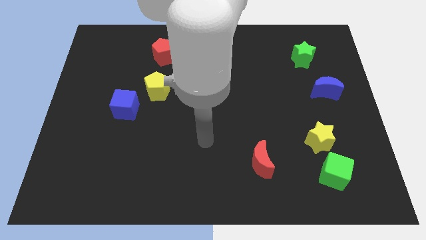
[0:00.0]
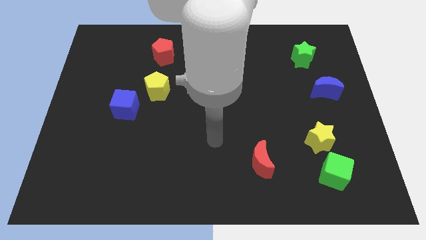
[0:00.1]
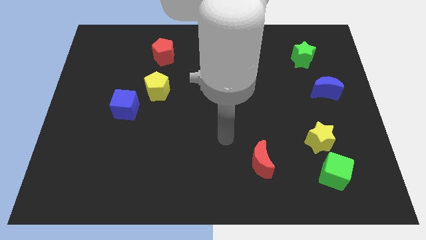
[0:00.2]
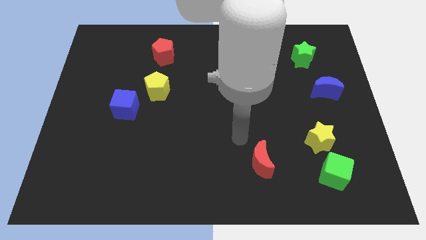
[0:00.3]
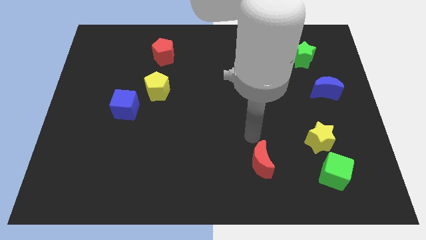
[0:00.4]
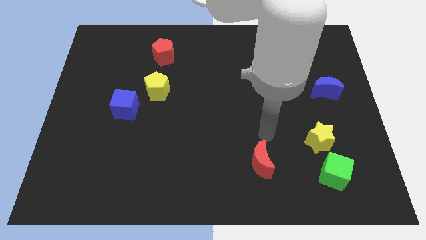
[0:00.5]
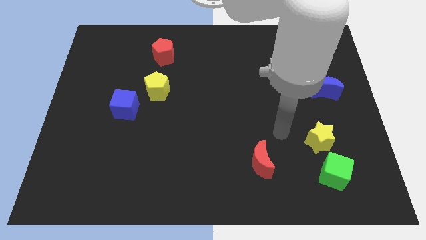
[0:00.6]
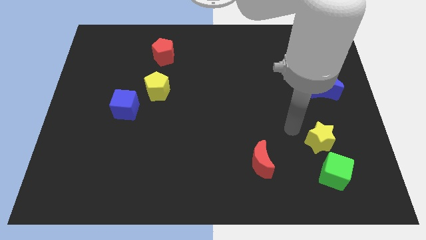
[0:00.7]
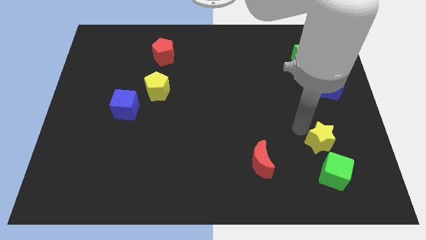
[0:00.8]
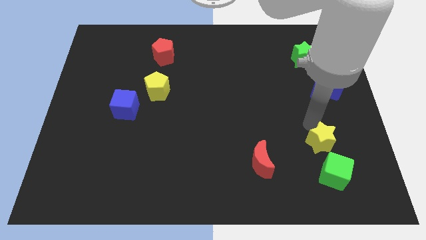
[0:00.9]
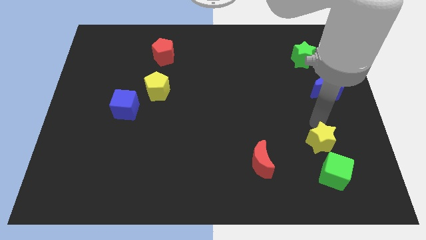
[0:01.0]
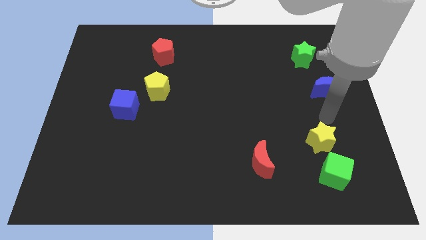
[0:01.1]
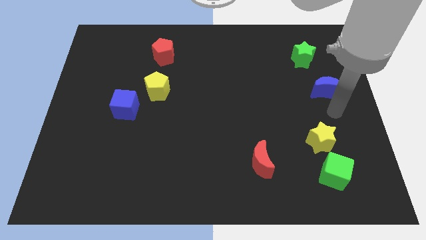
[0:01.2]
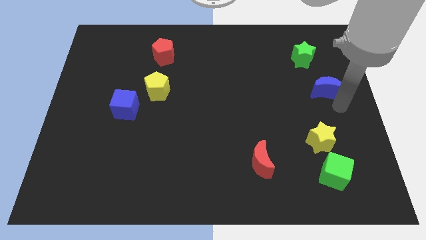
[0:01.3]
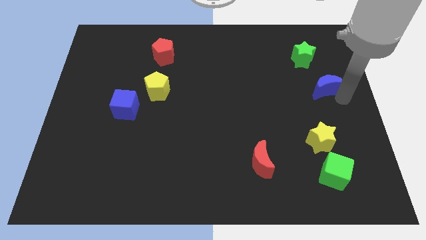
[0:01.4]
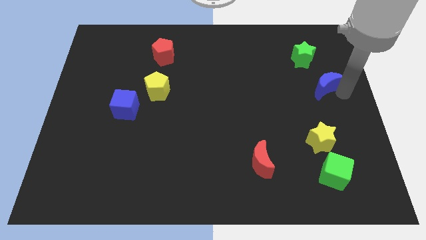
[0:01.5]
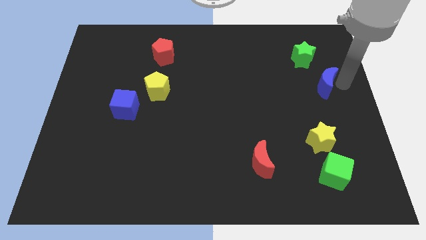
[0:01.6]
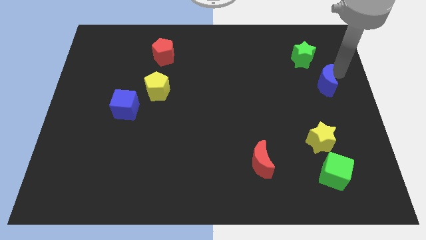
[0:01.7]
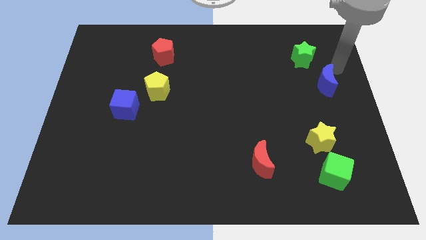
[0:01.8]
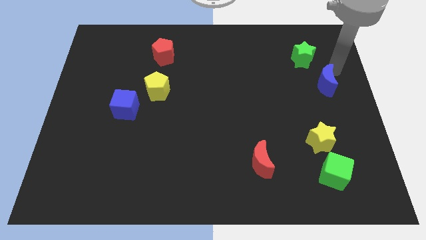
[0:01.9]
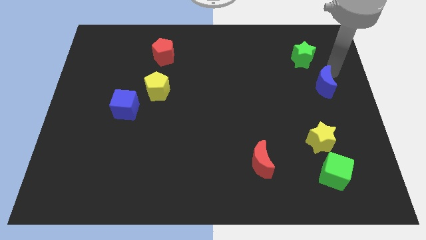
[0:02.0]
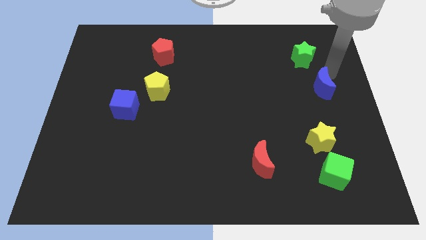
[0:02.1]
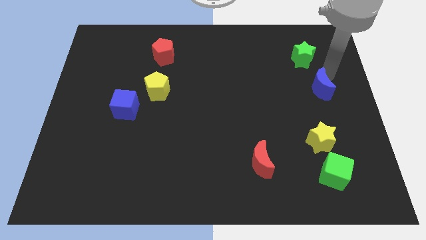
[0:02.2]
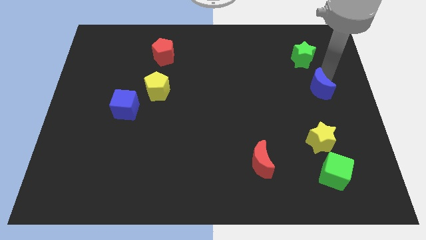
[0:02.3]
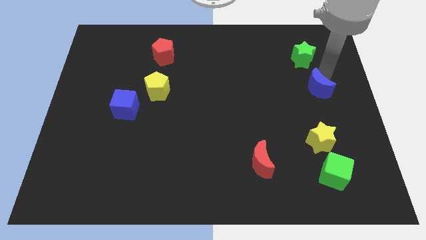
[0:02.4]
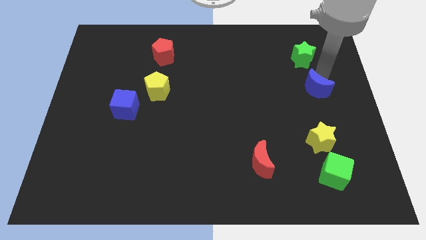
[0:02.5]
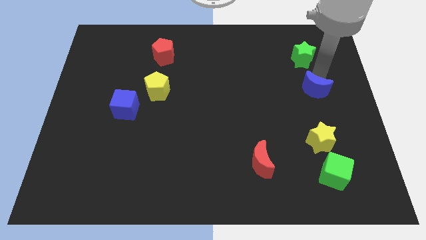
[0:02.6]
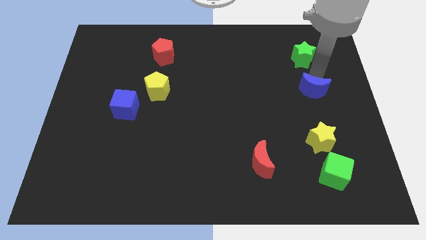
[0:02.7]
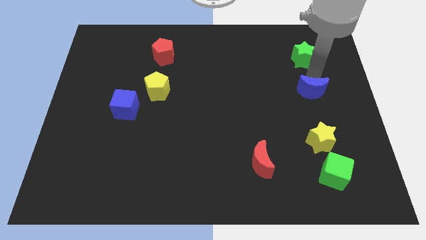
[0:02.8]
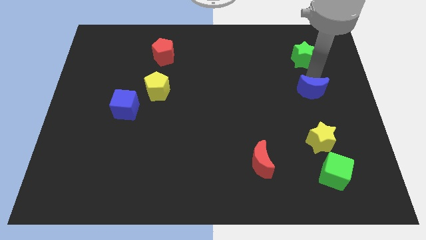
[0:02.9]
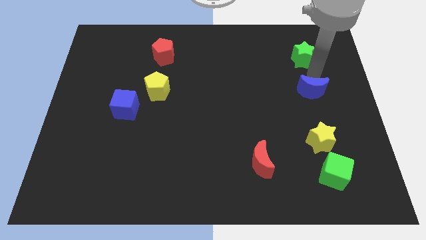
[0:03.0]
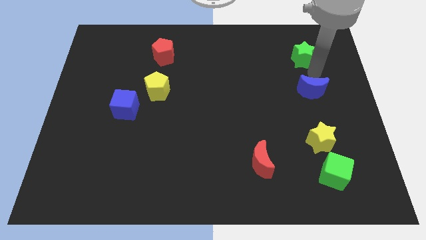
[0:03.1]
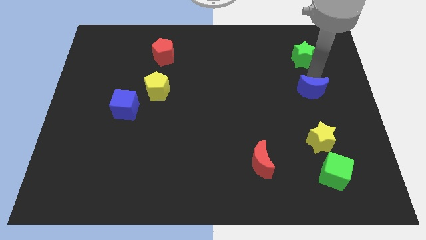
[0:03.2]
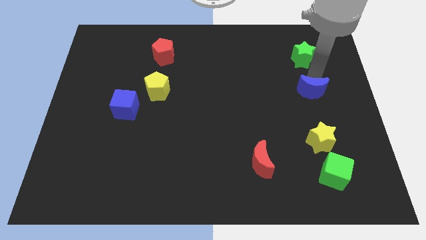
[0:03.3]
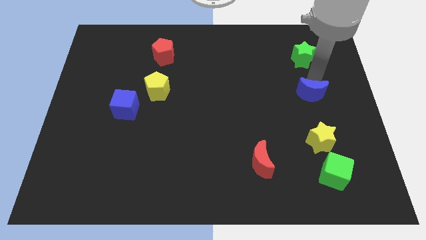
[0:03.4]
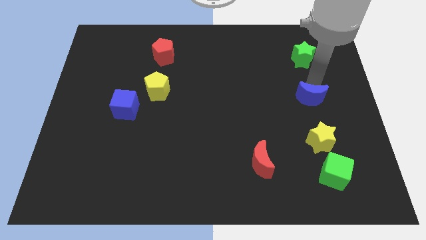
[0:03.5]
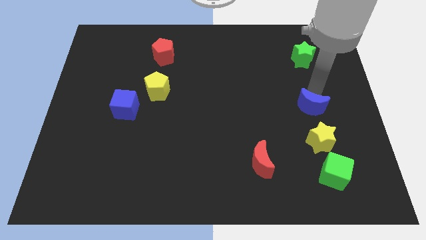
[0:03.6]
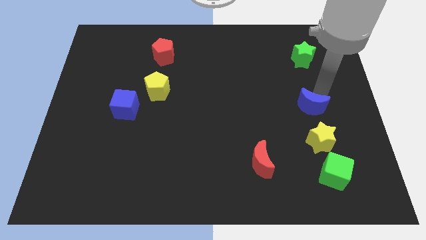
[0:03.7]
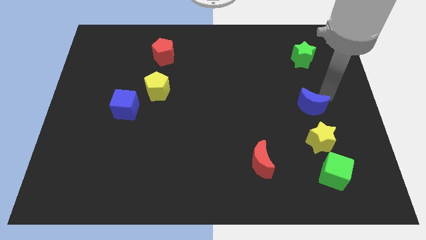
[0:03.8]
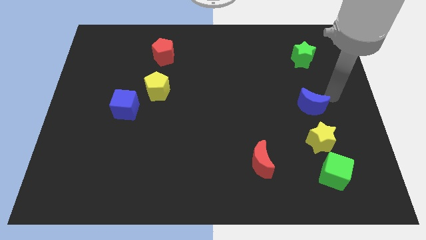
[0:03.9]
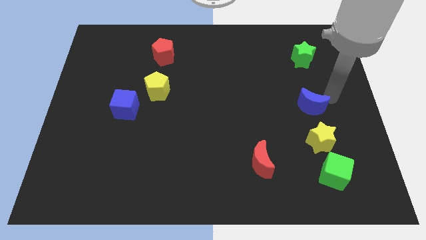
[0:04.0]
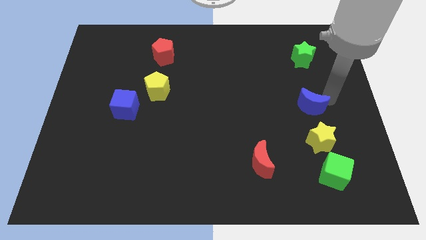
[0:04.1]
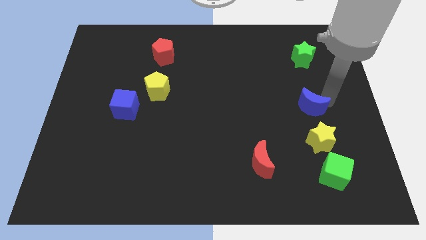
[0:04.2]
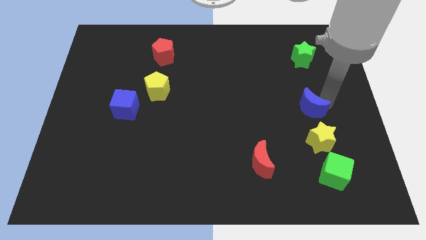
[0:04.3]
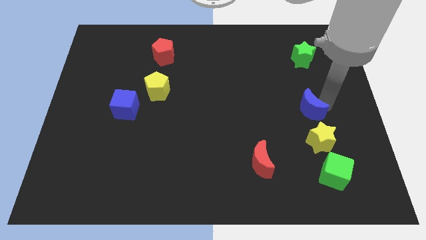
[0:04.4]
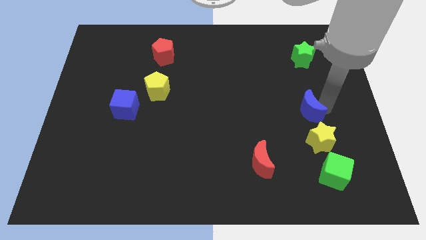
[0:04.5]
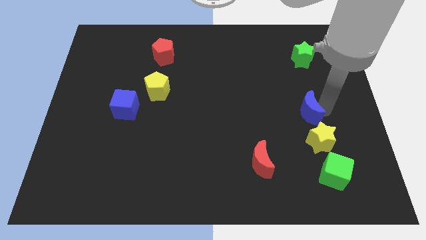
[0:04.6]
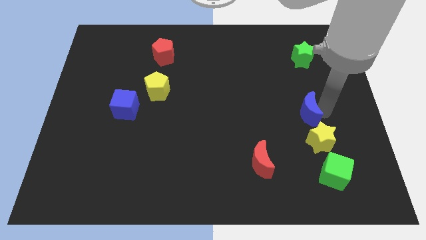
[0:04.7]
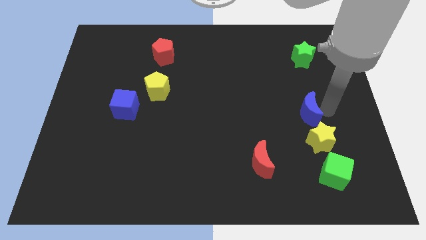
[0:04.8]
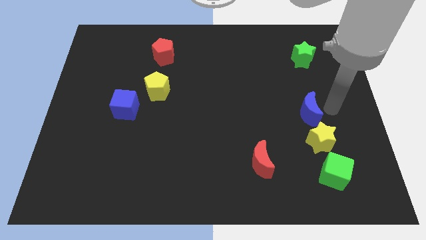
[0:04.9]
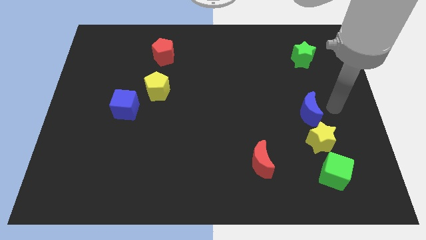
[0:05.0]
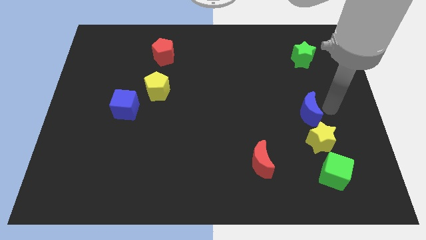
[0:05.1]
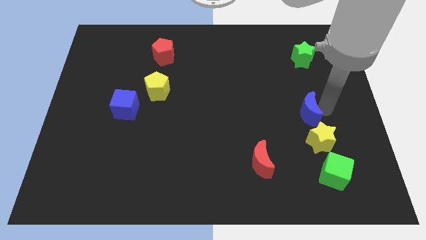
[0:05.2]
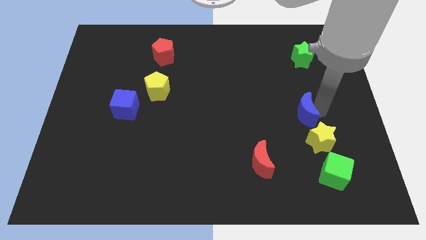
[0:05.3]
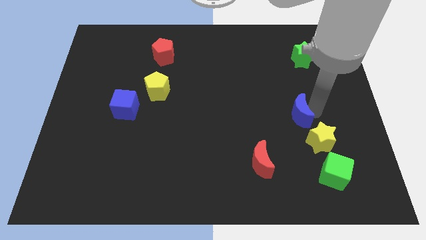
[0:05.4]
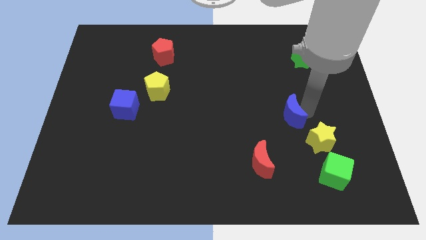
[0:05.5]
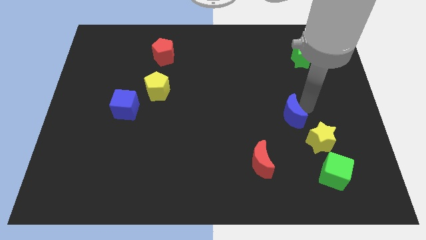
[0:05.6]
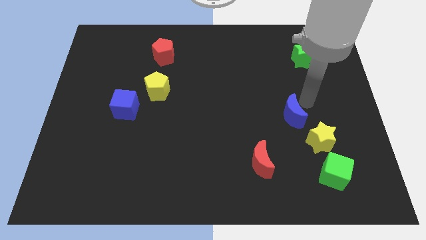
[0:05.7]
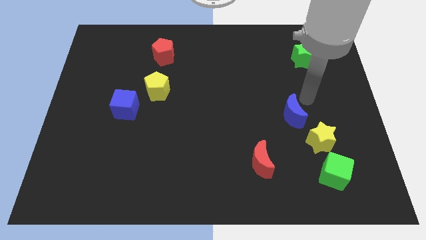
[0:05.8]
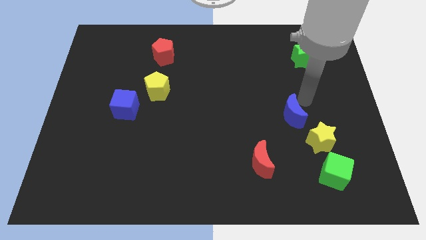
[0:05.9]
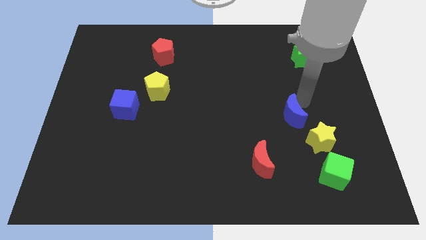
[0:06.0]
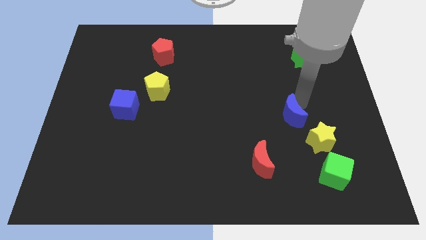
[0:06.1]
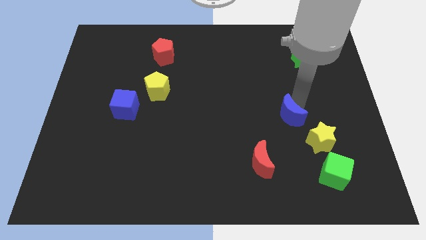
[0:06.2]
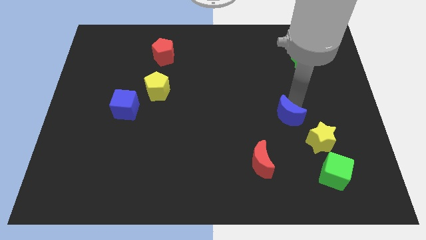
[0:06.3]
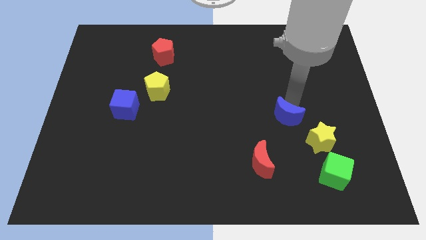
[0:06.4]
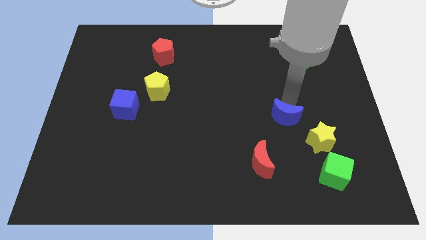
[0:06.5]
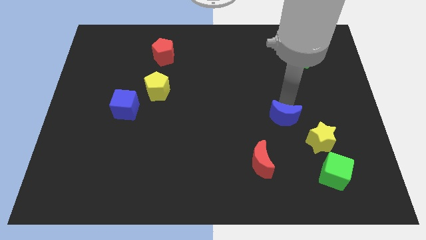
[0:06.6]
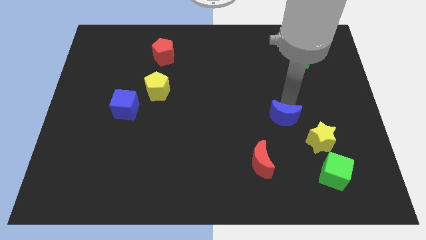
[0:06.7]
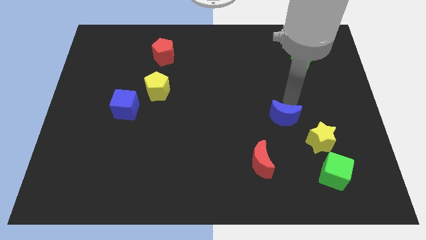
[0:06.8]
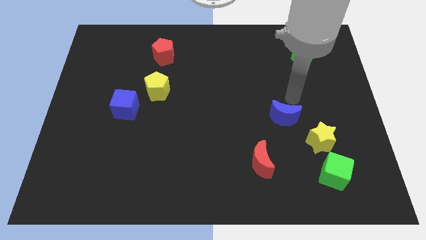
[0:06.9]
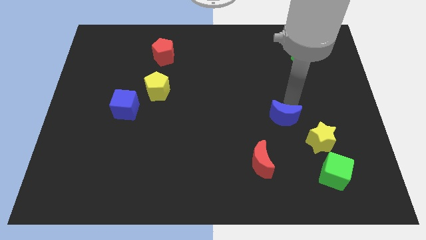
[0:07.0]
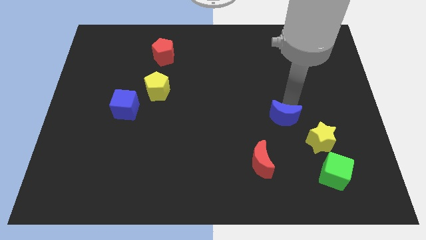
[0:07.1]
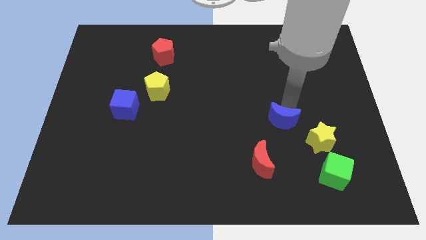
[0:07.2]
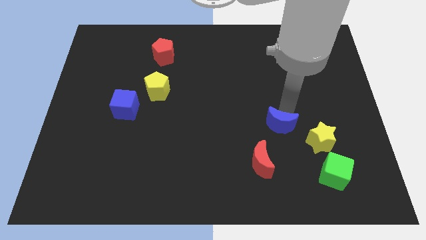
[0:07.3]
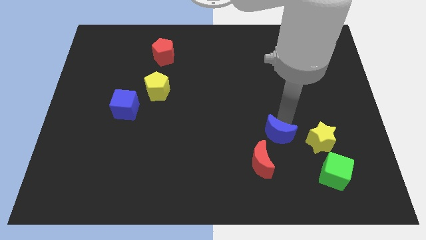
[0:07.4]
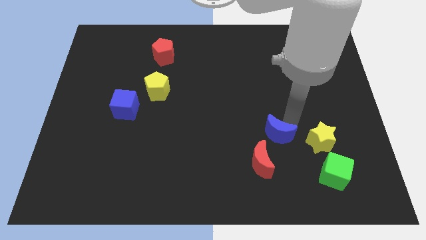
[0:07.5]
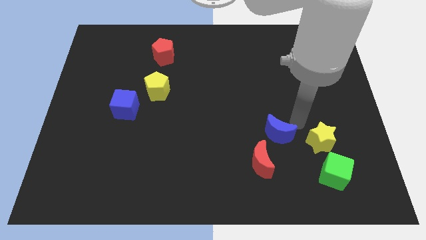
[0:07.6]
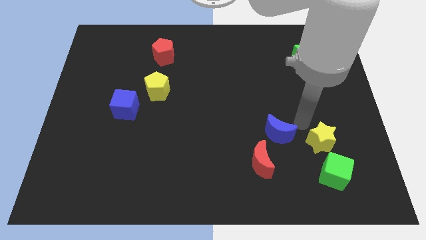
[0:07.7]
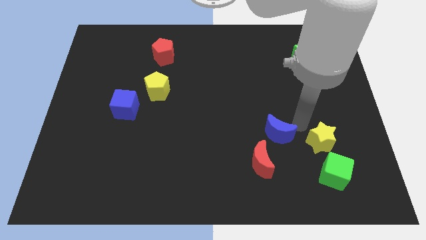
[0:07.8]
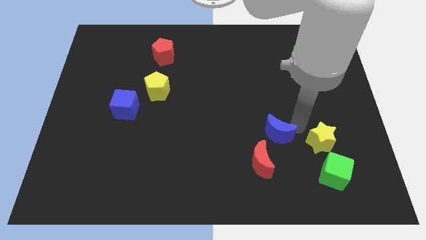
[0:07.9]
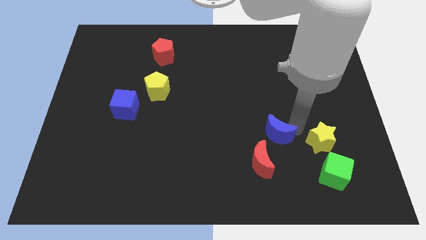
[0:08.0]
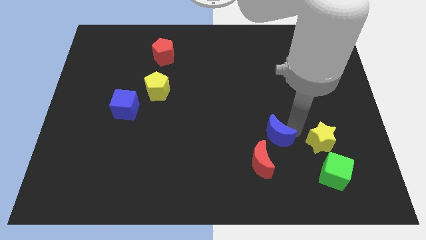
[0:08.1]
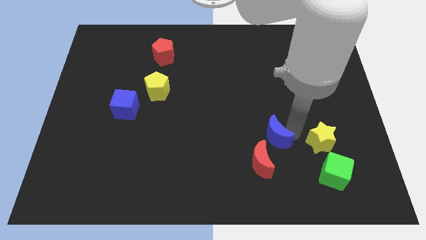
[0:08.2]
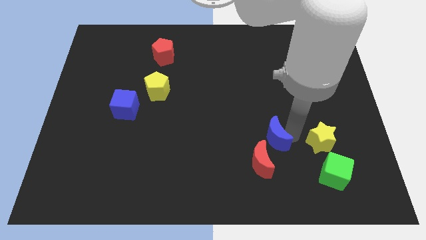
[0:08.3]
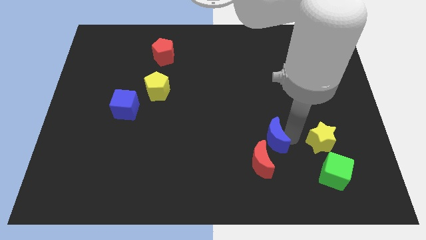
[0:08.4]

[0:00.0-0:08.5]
push the blue moon downwards and to the left
